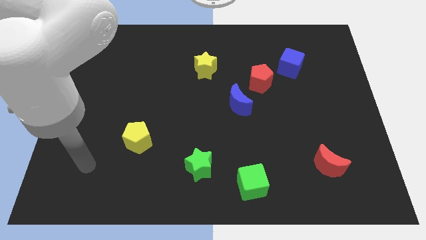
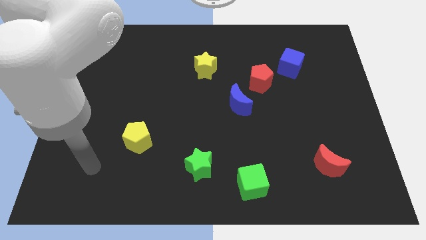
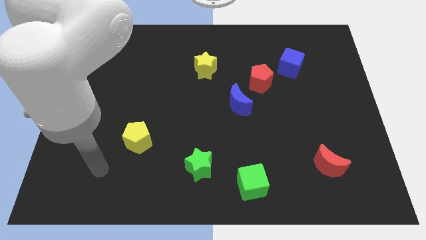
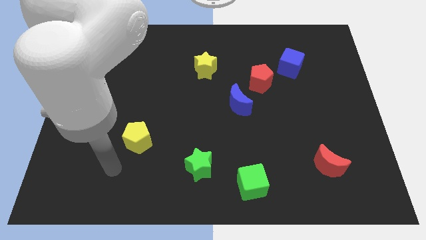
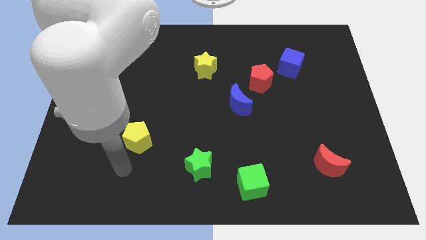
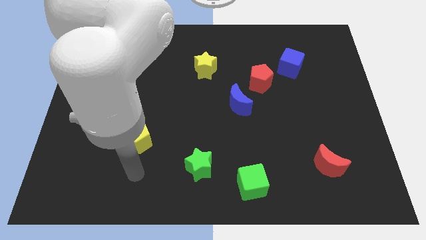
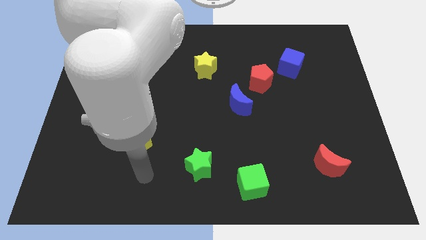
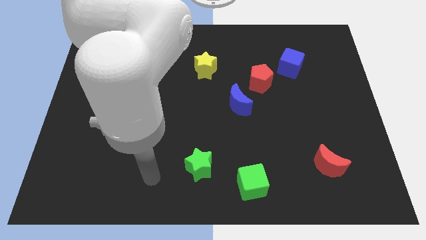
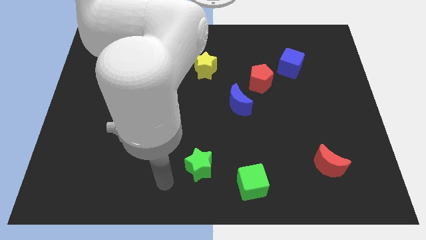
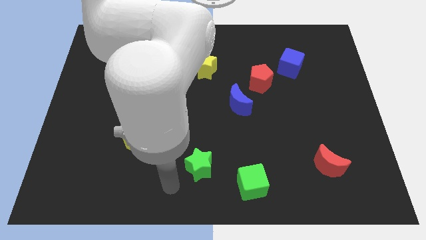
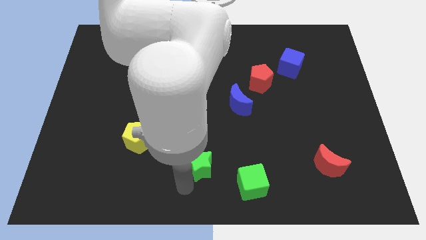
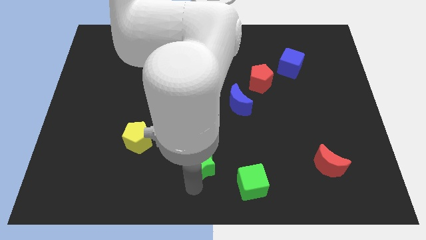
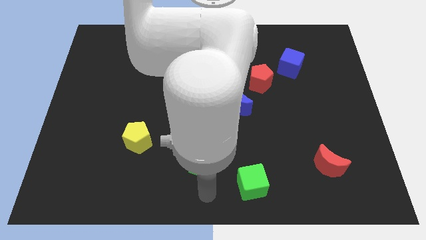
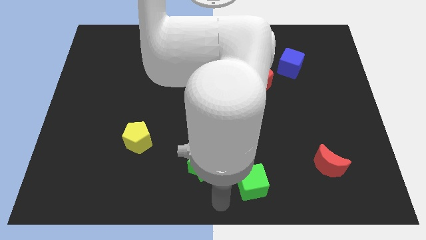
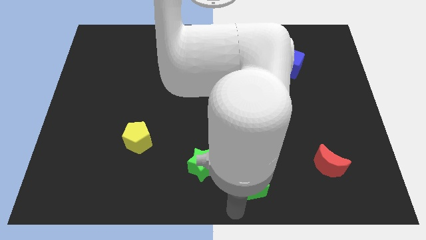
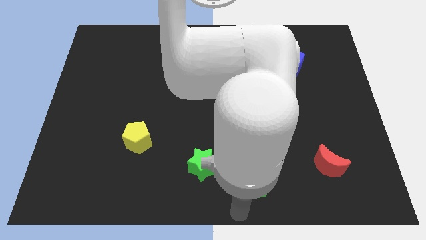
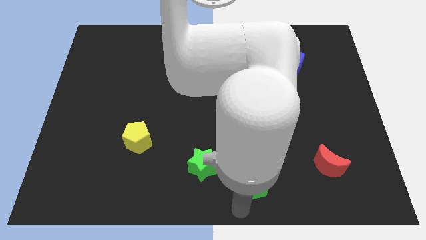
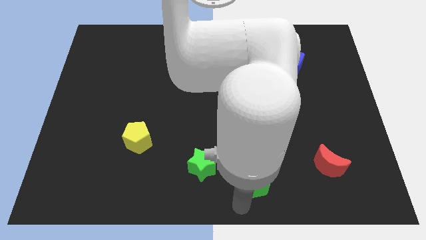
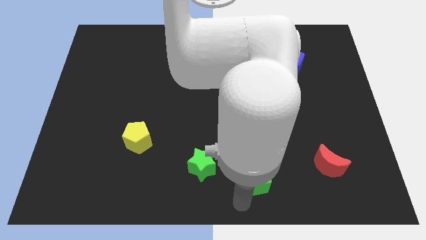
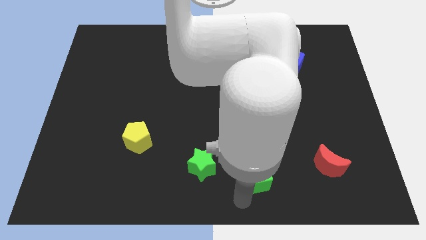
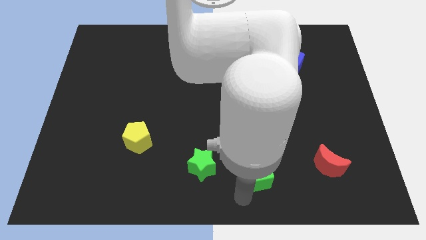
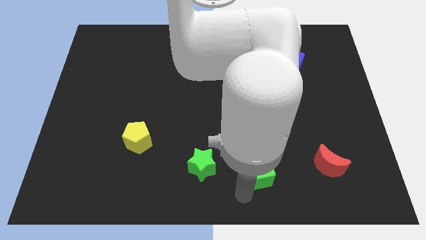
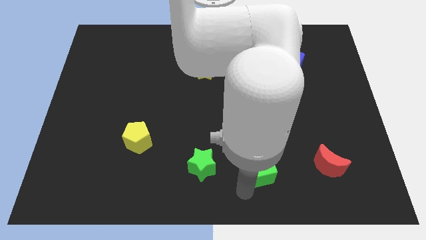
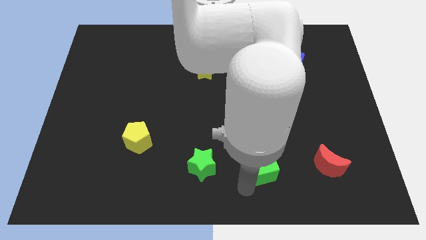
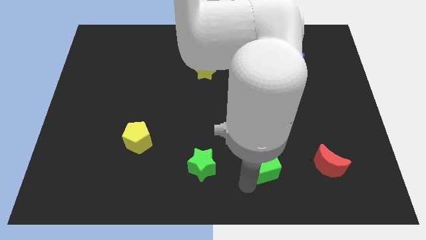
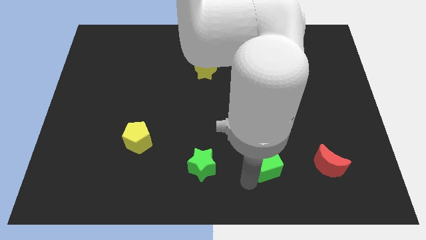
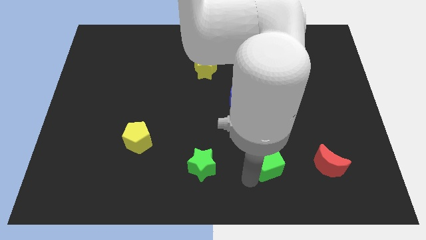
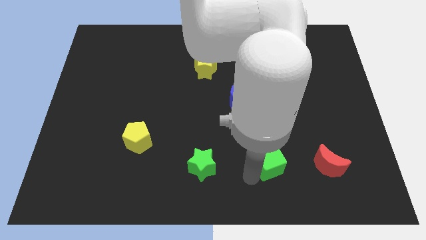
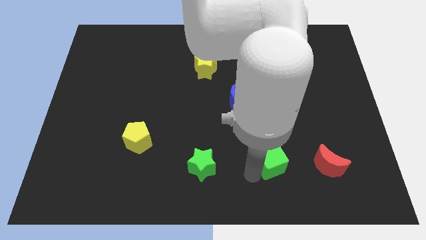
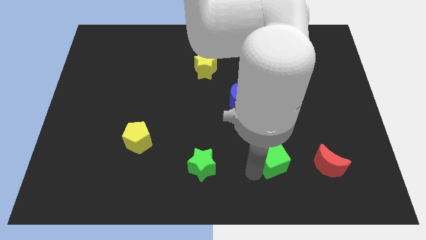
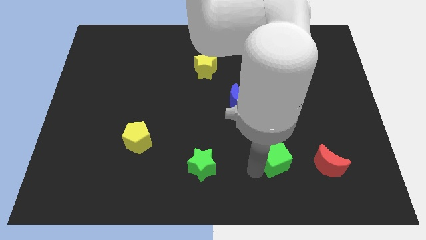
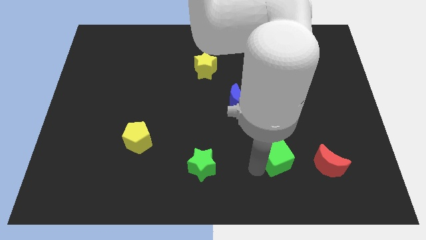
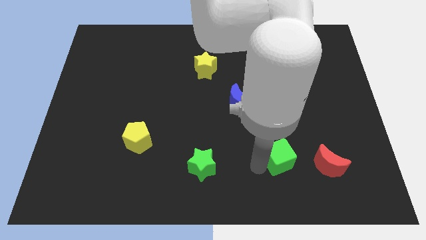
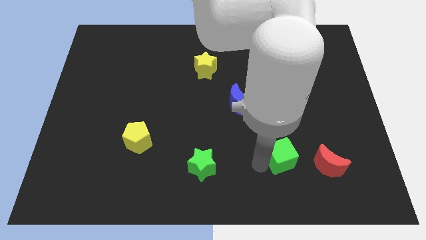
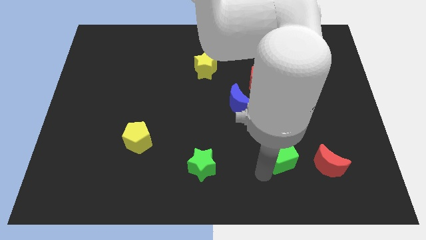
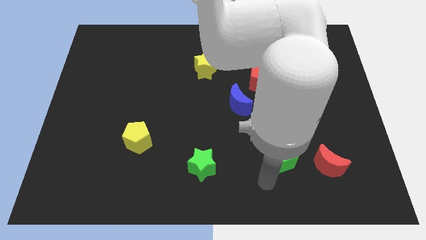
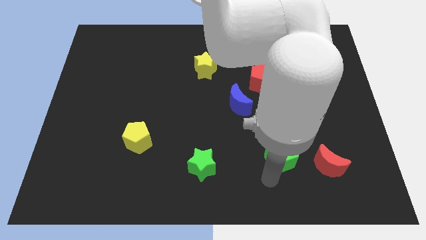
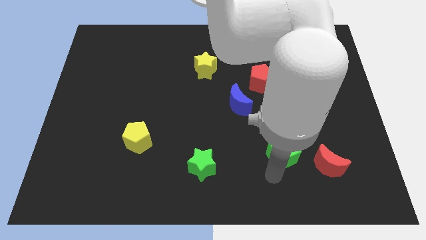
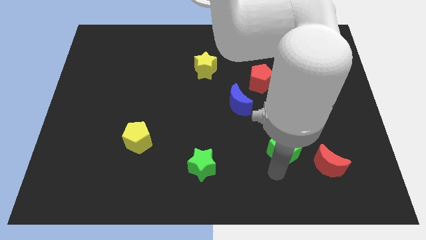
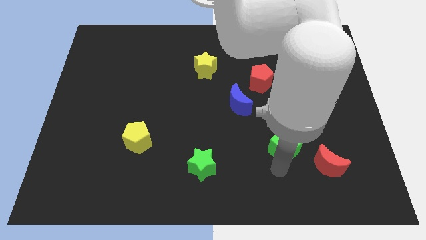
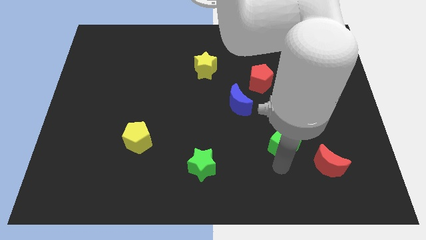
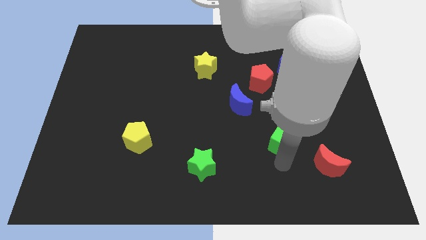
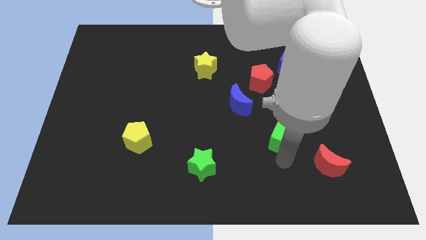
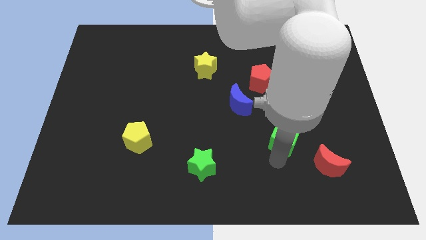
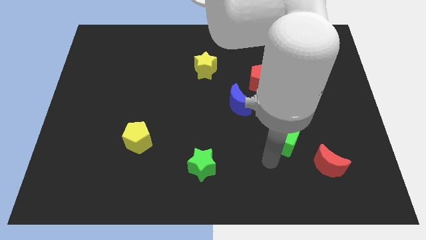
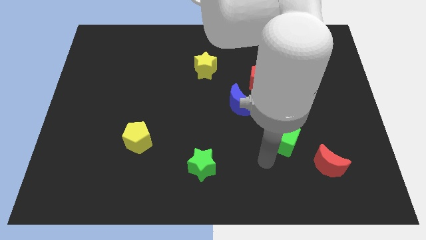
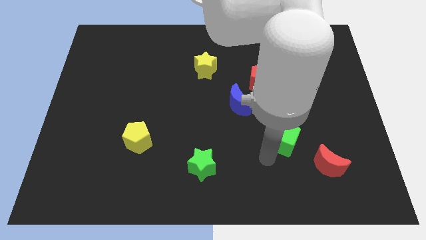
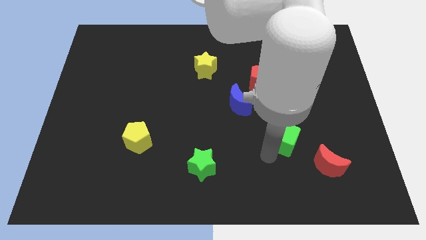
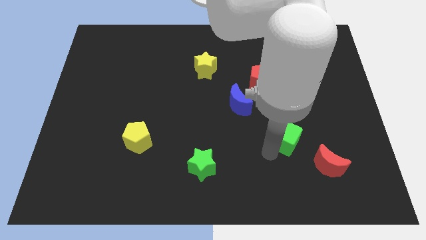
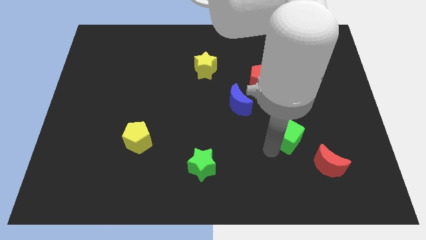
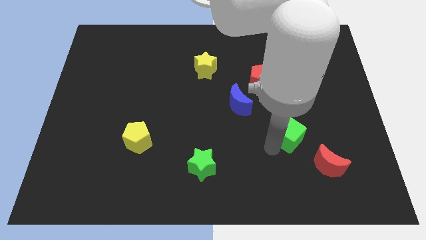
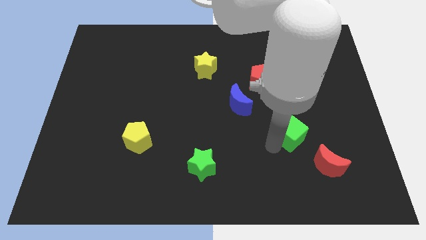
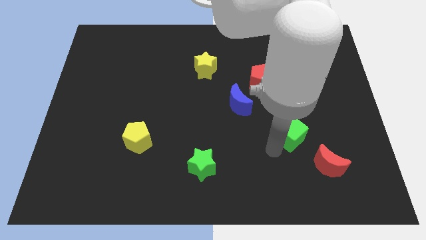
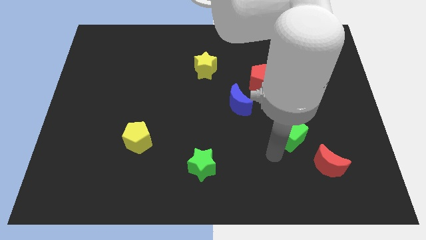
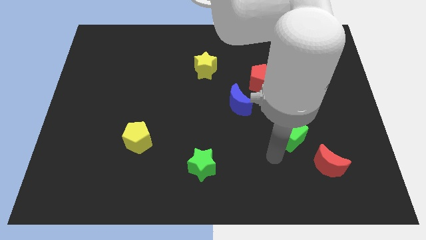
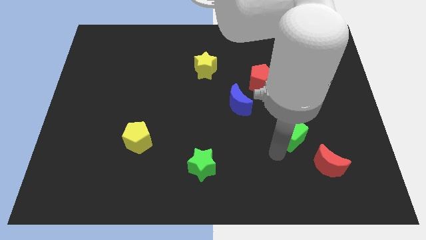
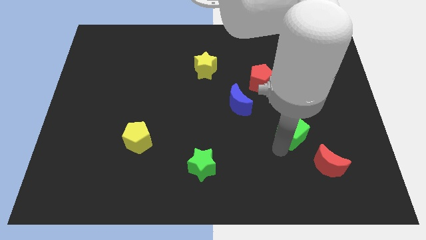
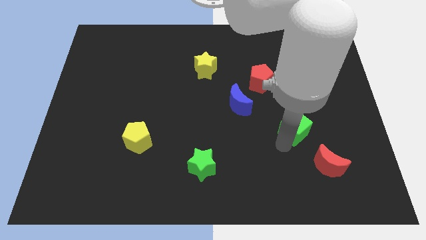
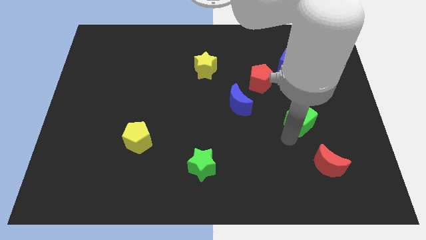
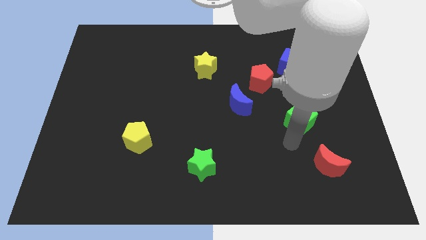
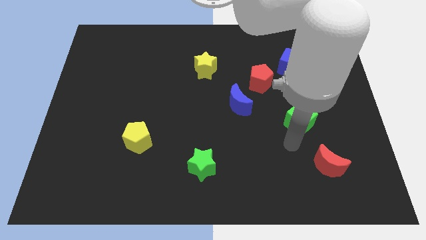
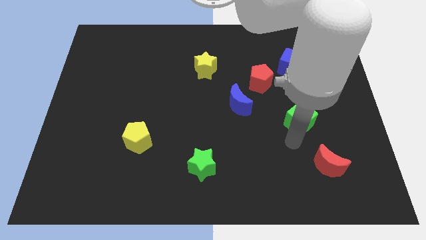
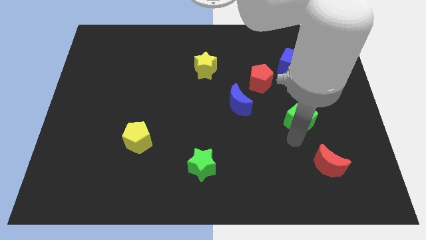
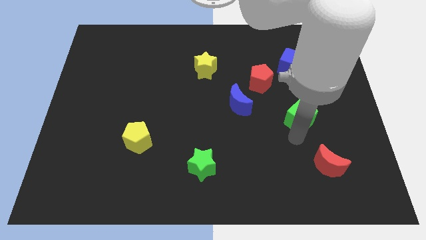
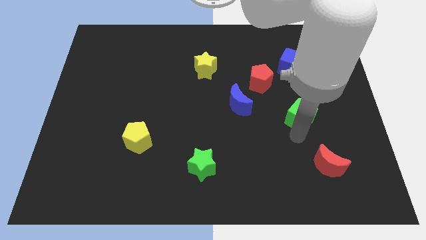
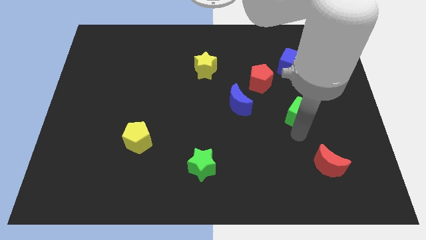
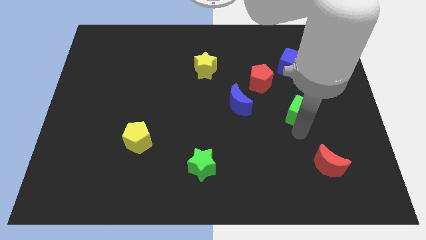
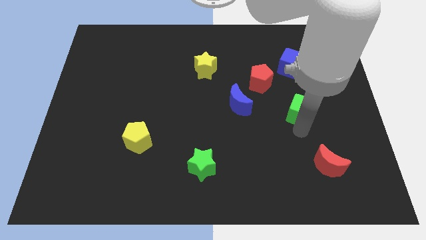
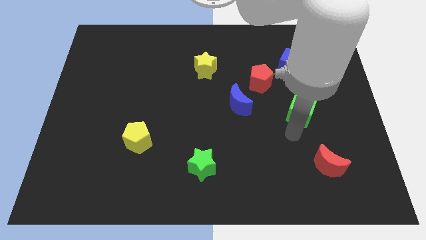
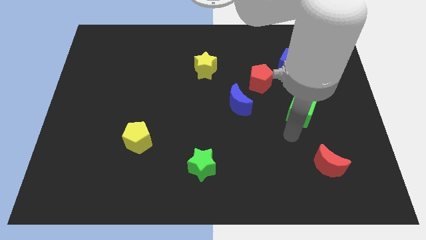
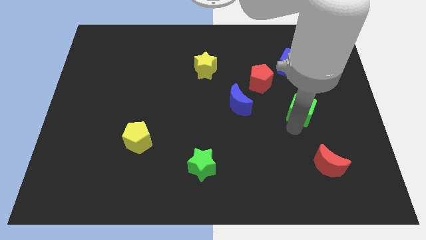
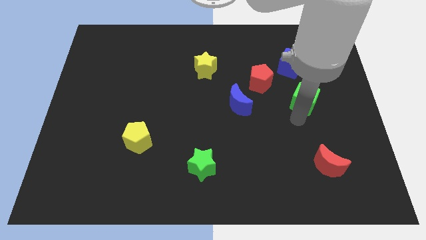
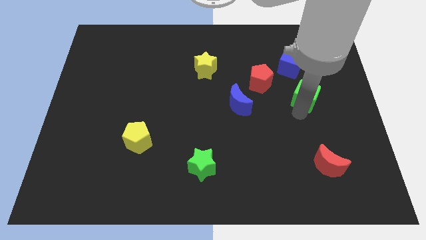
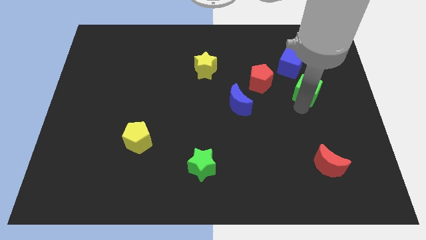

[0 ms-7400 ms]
slide the green cube to the bottom right side of the blue cube
